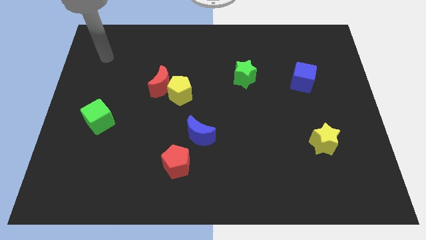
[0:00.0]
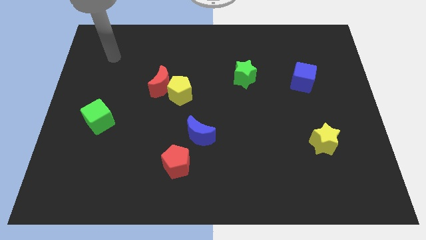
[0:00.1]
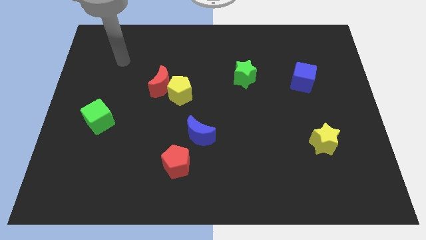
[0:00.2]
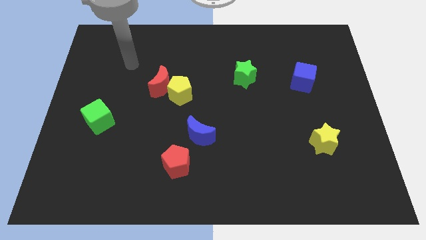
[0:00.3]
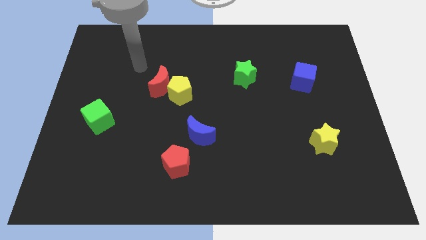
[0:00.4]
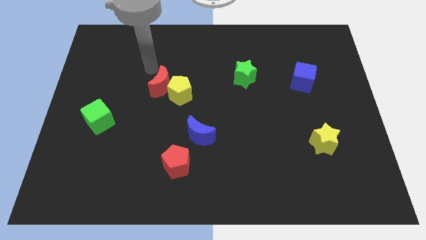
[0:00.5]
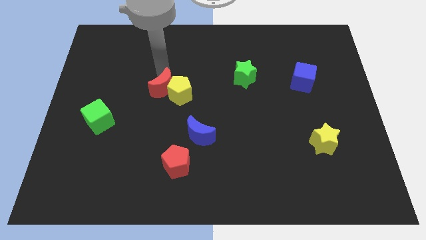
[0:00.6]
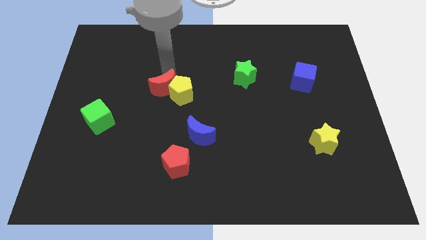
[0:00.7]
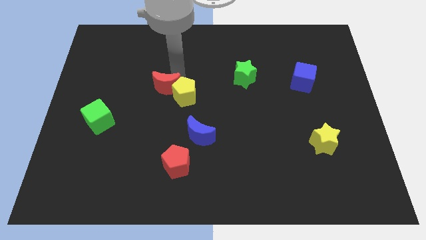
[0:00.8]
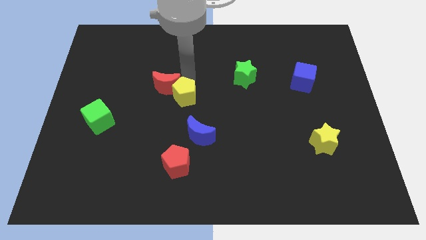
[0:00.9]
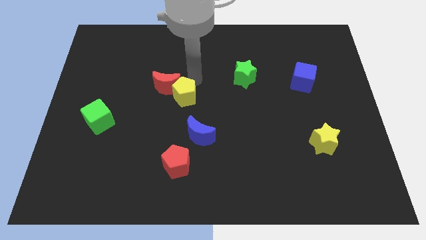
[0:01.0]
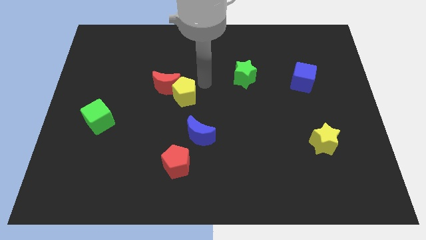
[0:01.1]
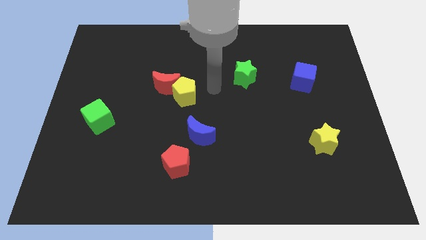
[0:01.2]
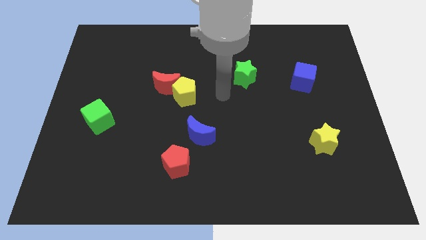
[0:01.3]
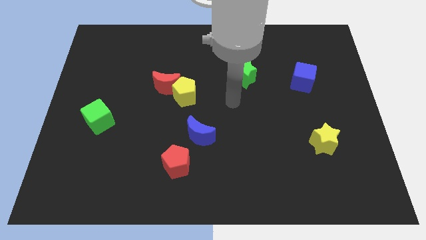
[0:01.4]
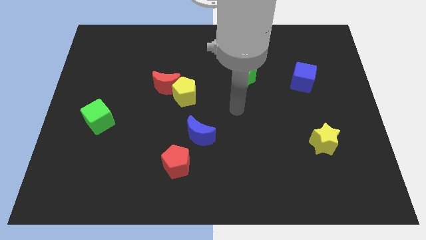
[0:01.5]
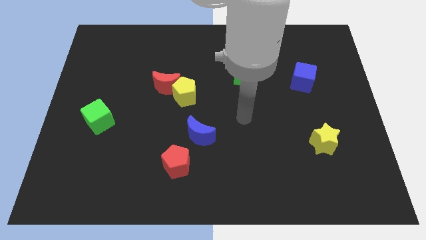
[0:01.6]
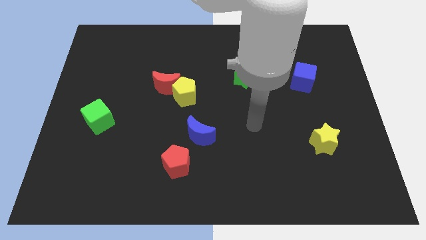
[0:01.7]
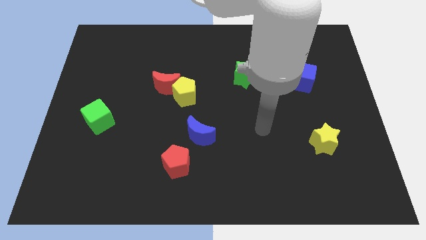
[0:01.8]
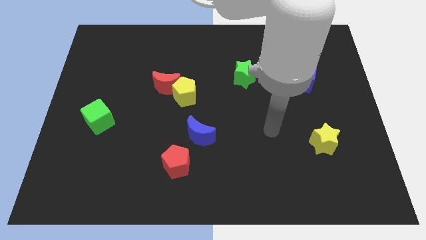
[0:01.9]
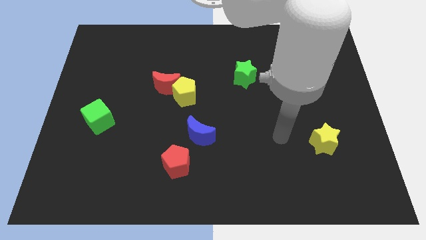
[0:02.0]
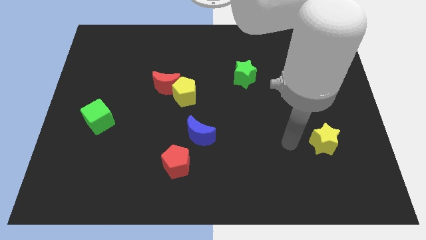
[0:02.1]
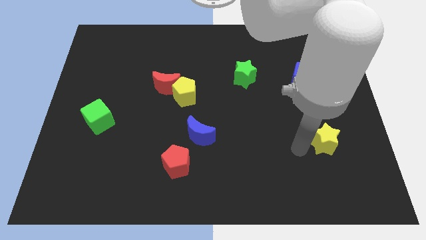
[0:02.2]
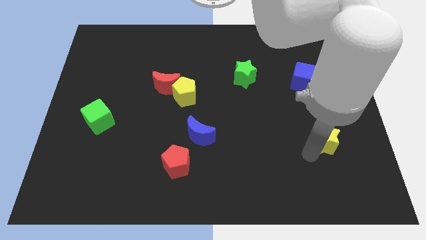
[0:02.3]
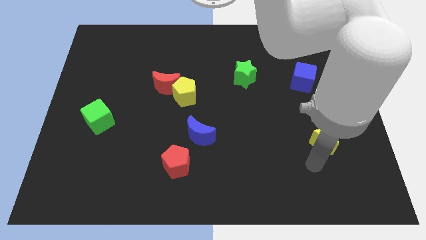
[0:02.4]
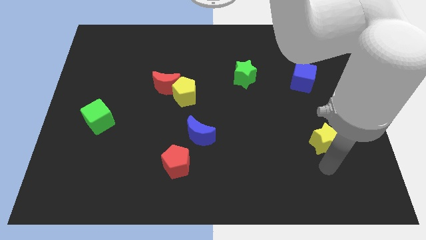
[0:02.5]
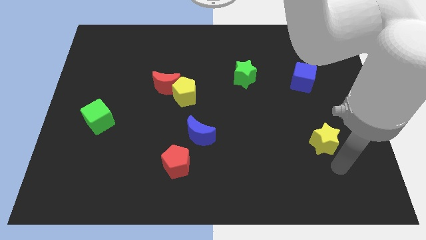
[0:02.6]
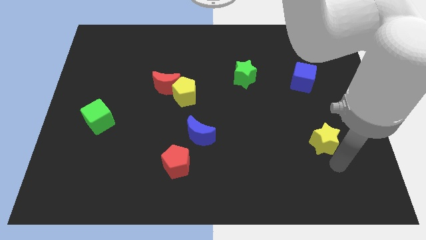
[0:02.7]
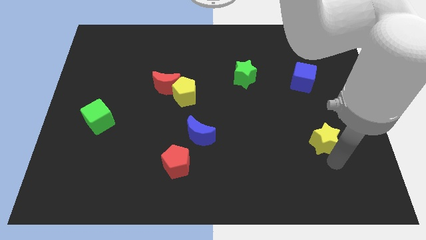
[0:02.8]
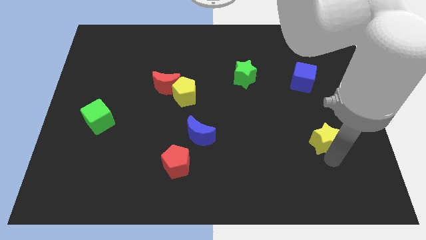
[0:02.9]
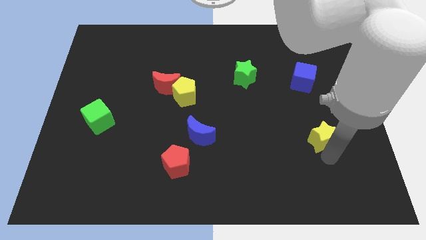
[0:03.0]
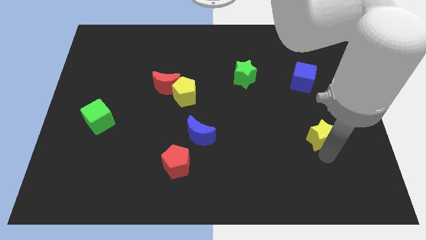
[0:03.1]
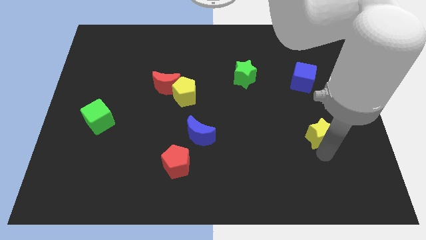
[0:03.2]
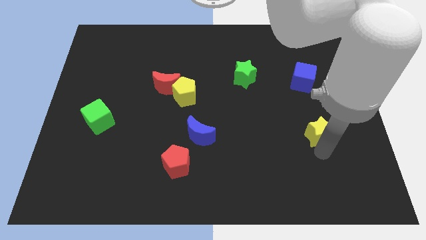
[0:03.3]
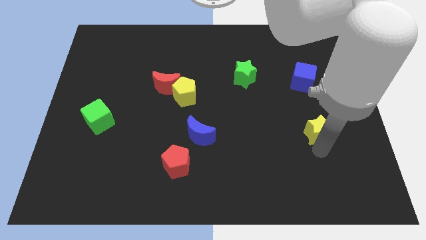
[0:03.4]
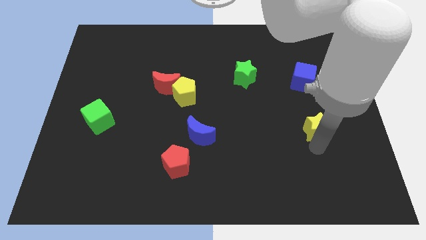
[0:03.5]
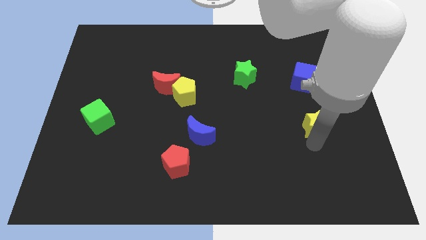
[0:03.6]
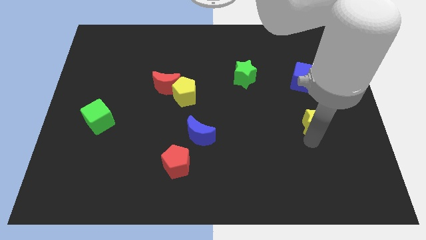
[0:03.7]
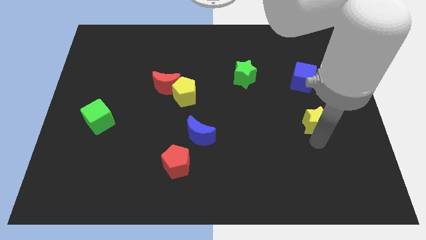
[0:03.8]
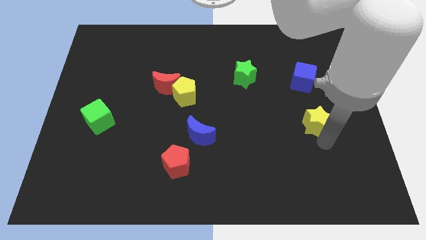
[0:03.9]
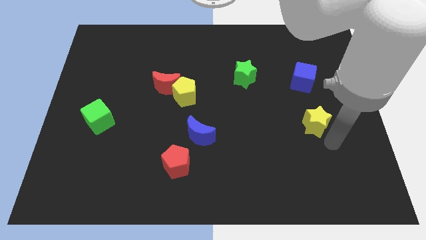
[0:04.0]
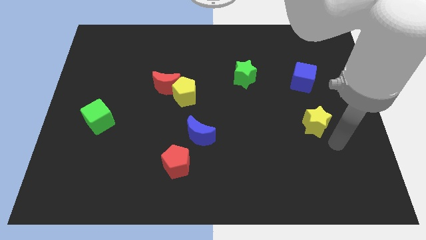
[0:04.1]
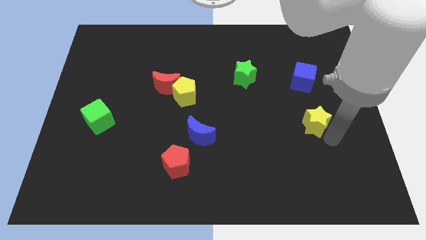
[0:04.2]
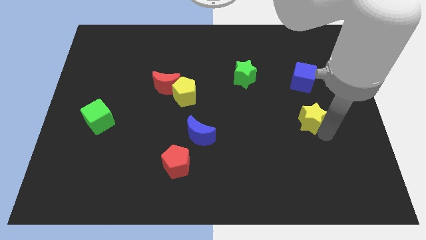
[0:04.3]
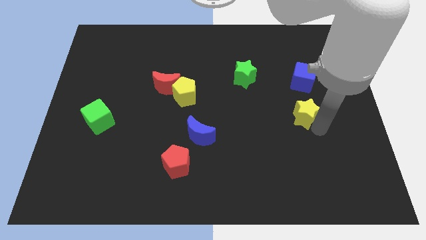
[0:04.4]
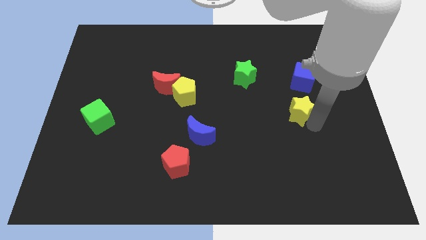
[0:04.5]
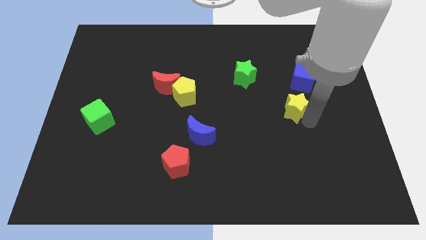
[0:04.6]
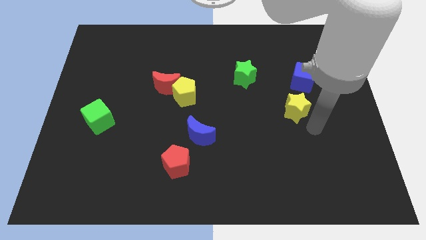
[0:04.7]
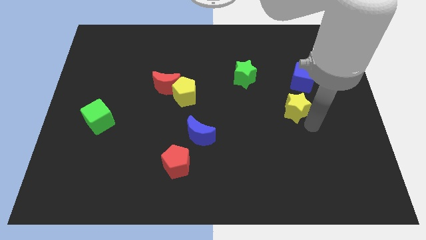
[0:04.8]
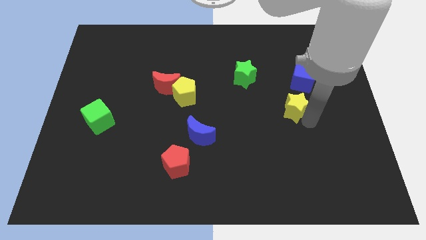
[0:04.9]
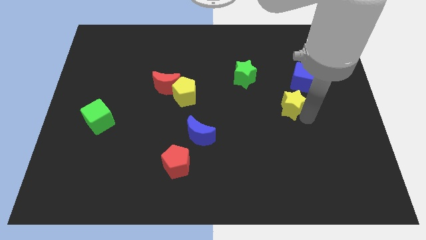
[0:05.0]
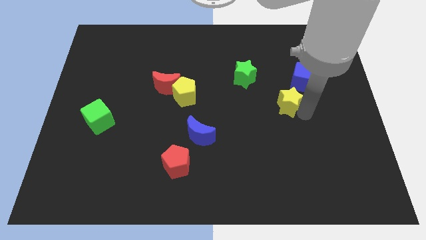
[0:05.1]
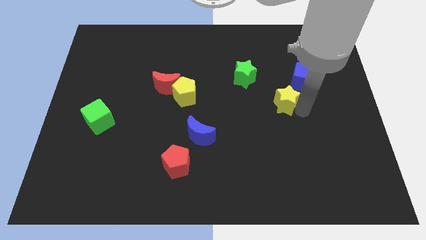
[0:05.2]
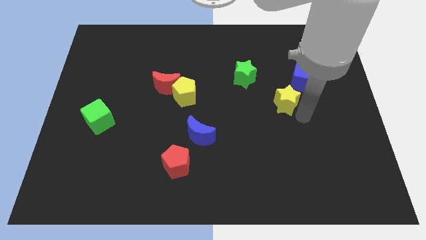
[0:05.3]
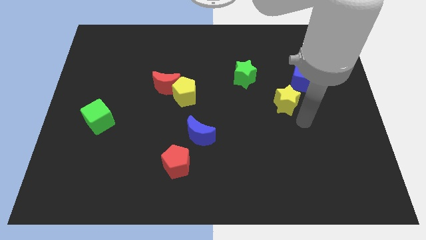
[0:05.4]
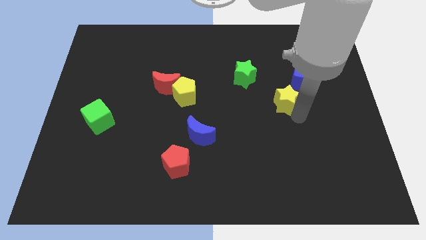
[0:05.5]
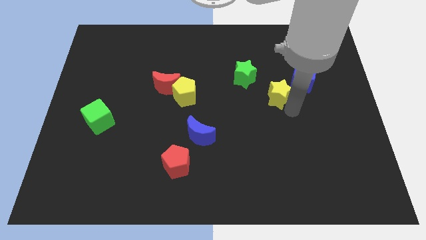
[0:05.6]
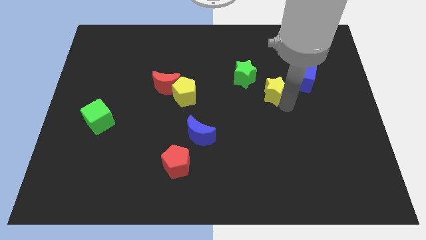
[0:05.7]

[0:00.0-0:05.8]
slide the yellow star just left of the blue cube
